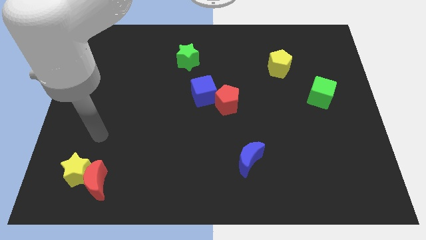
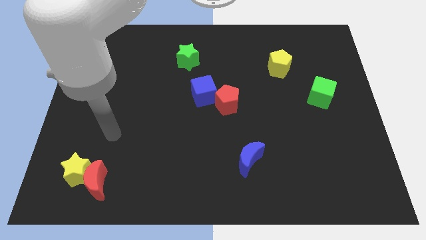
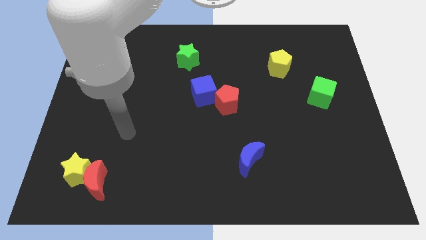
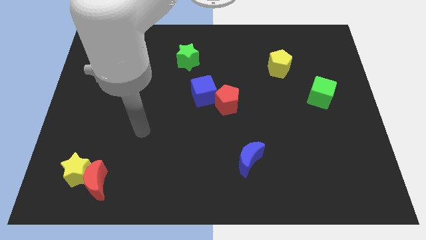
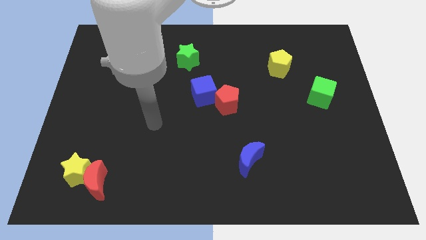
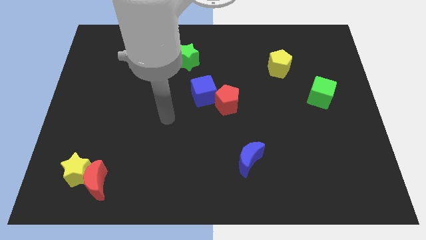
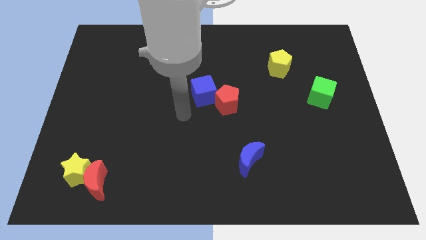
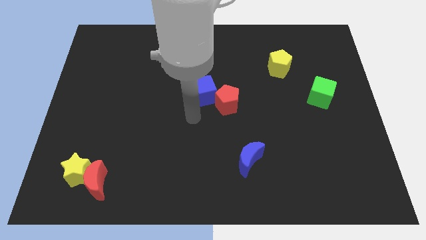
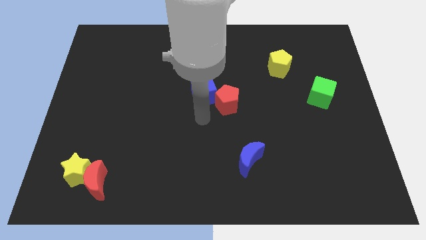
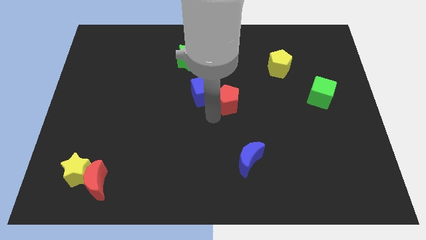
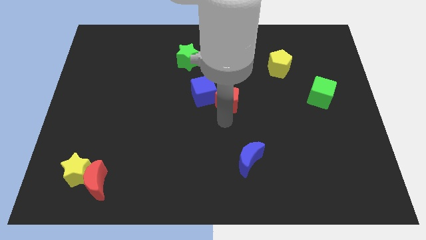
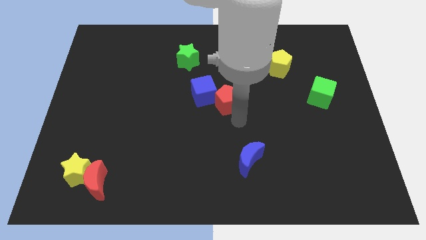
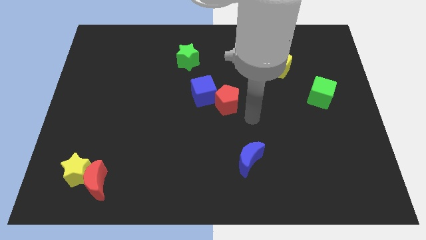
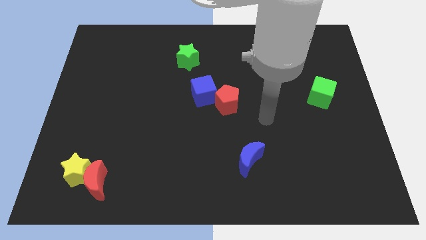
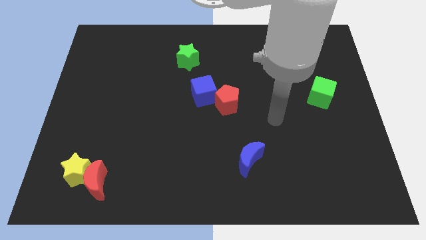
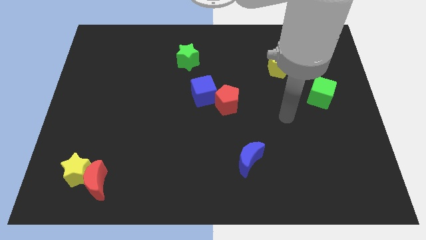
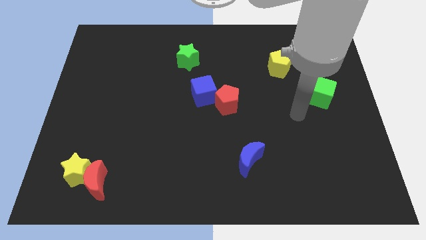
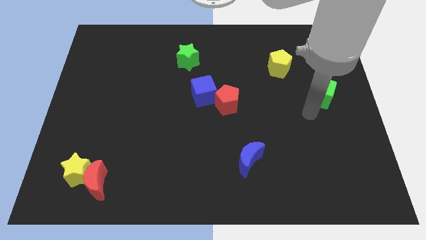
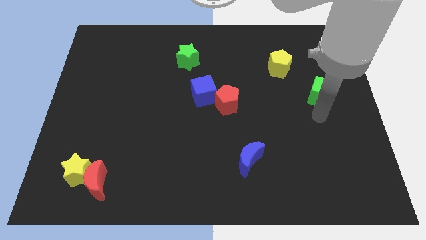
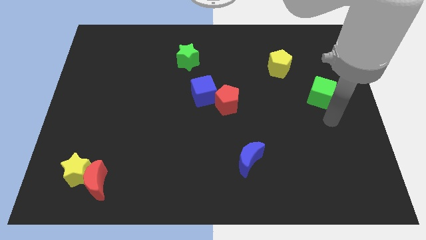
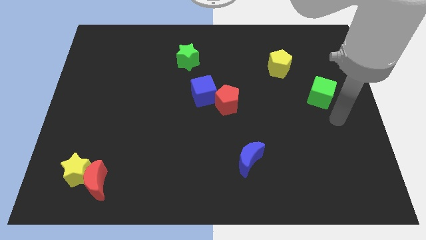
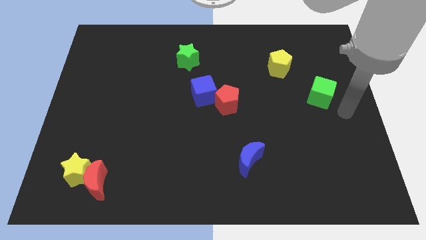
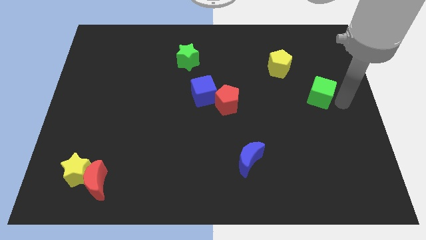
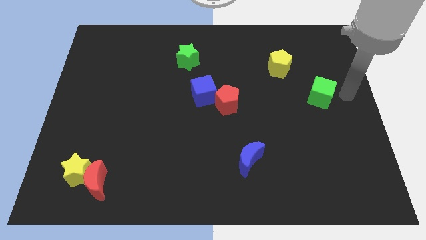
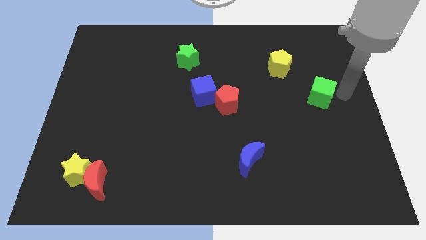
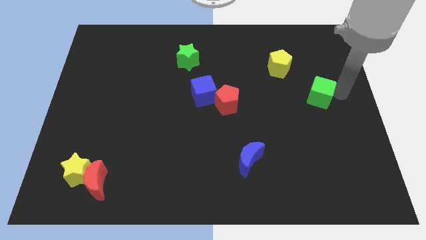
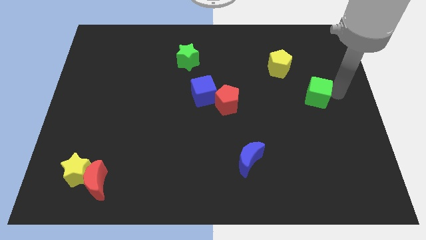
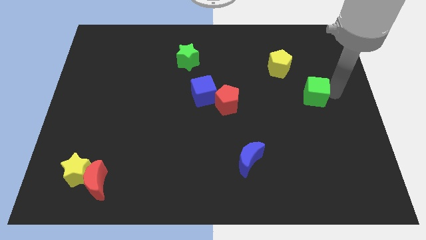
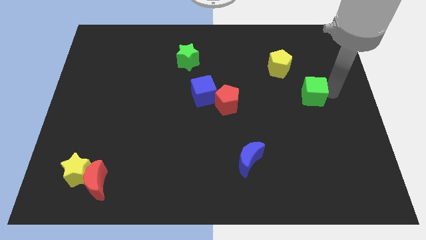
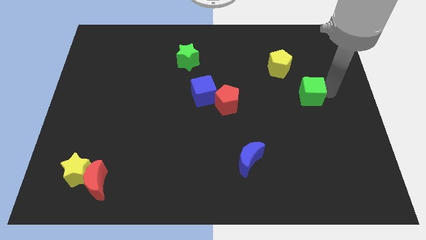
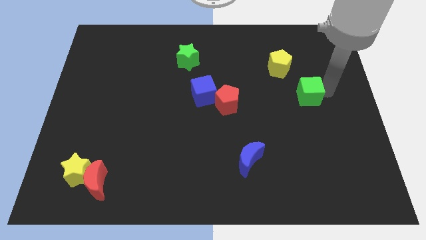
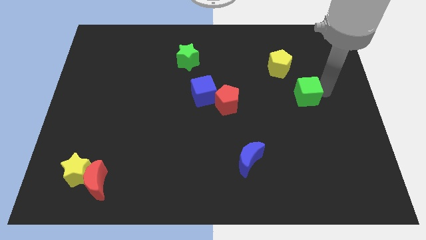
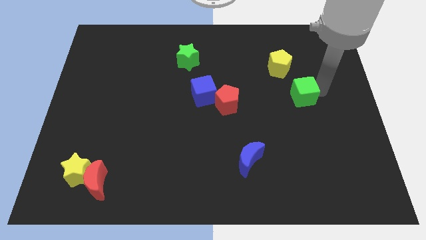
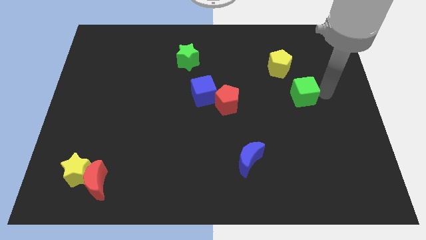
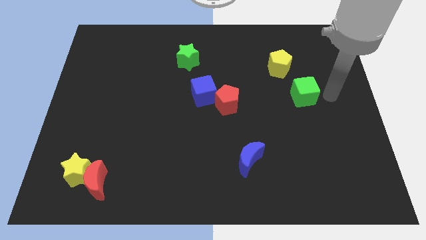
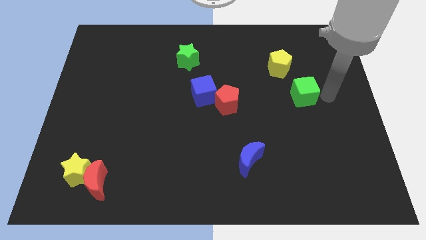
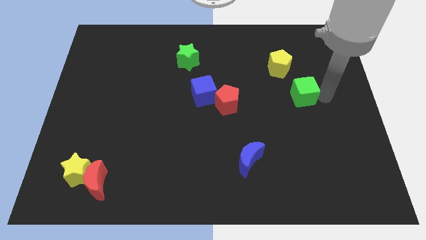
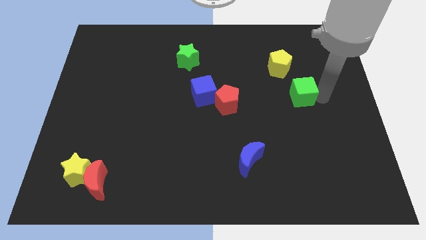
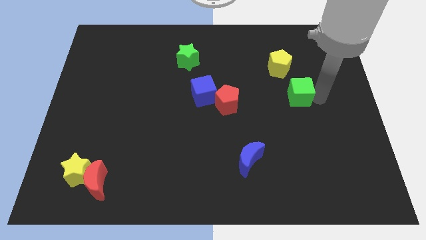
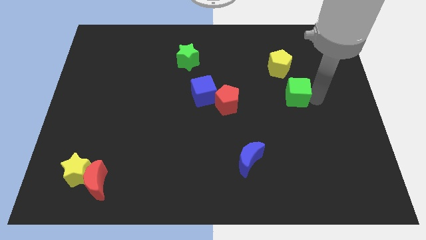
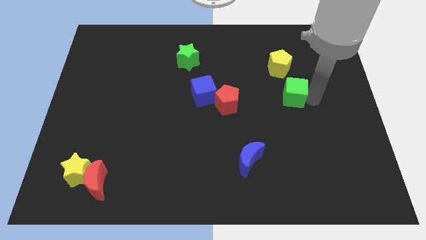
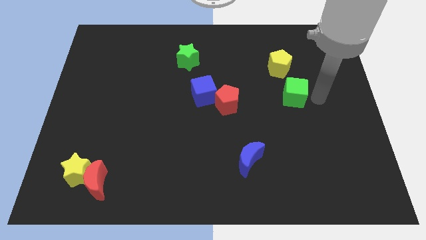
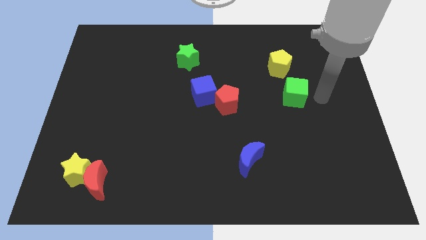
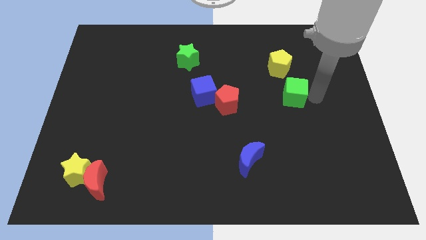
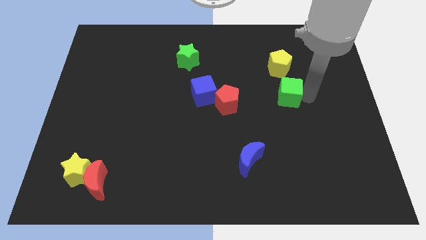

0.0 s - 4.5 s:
slide the green cube left somewhat

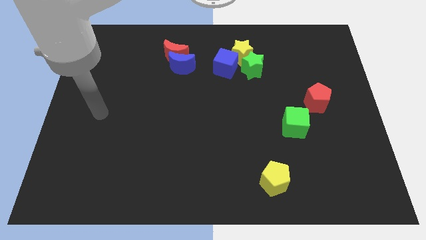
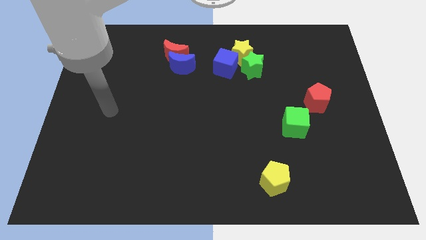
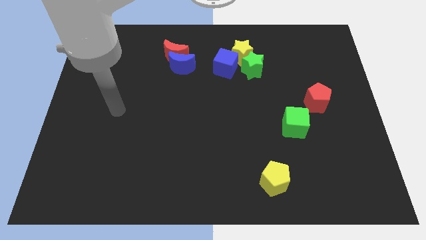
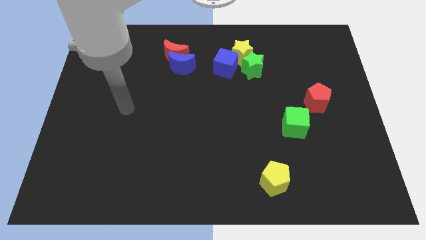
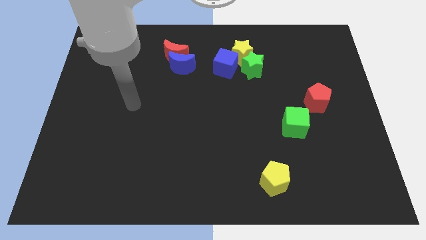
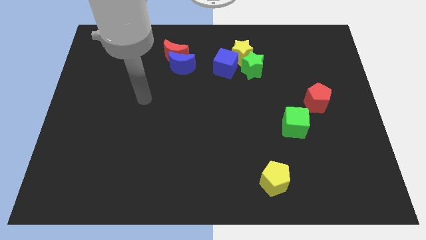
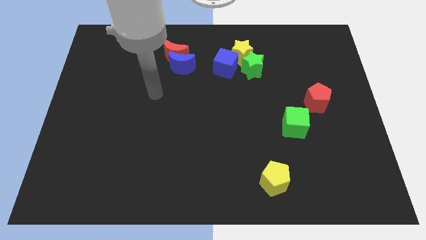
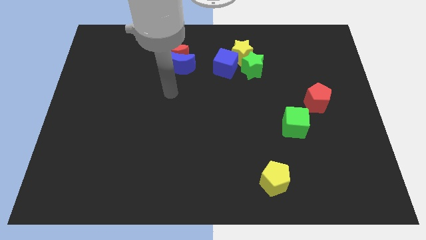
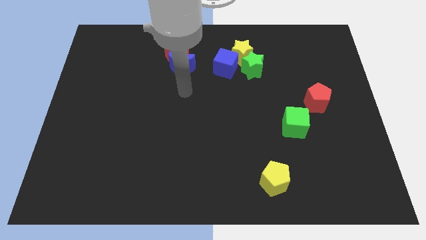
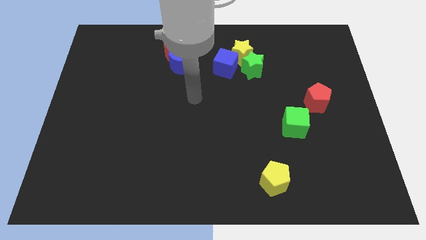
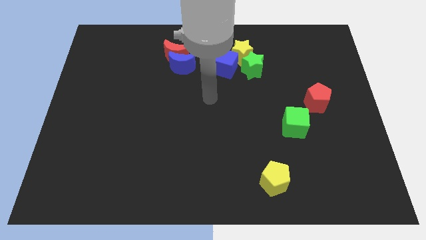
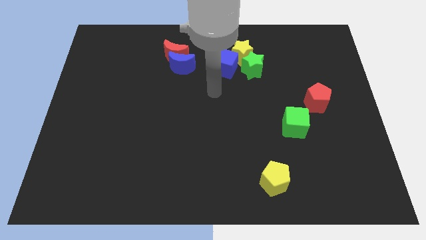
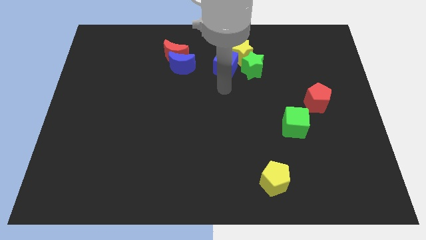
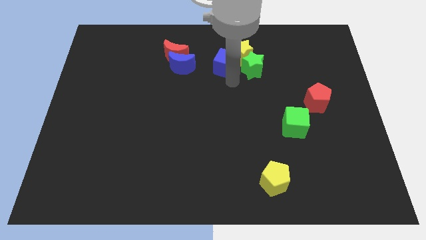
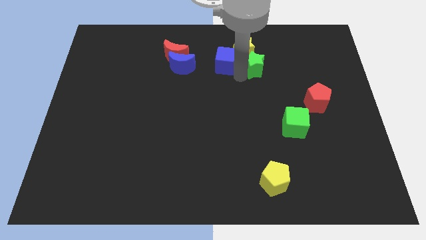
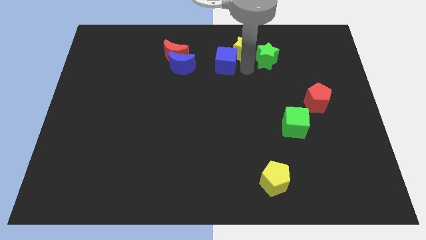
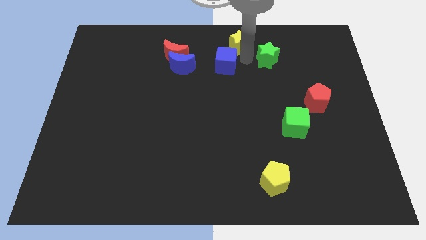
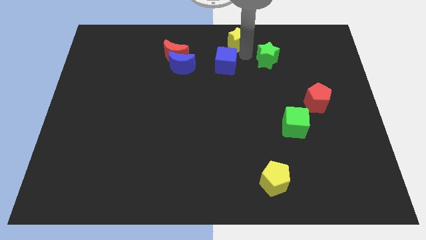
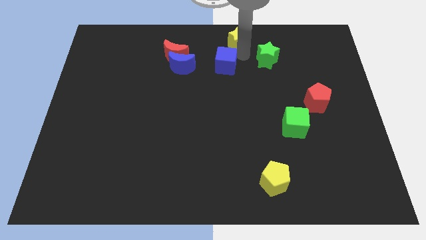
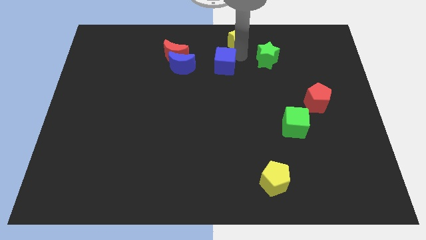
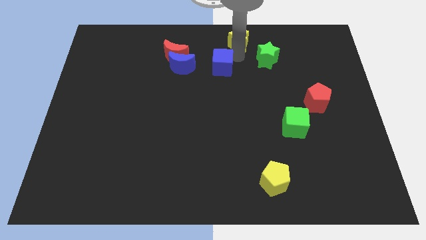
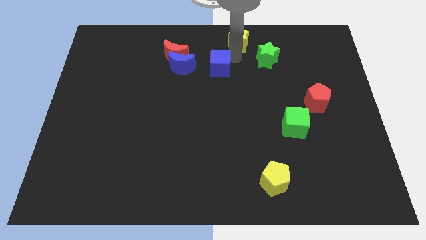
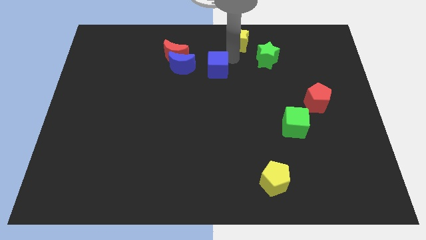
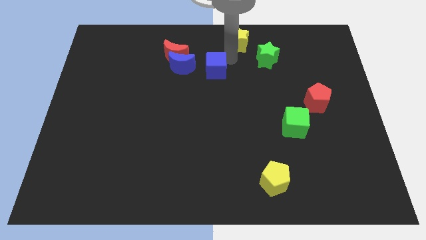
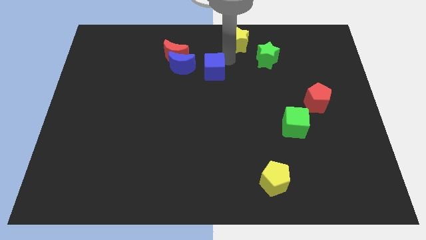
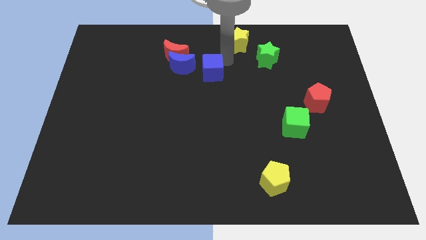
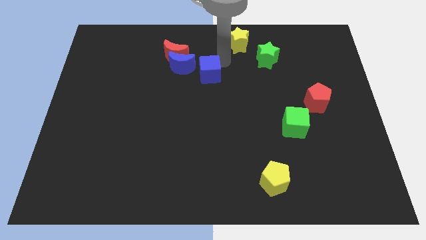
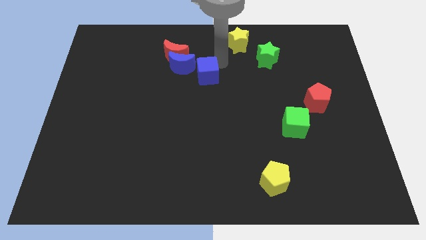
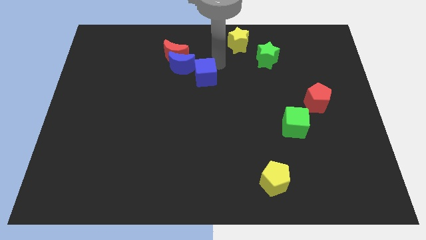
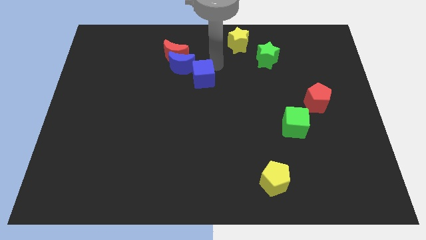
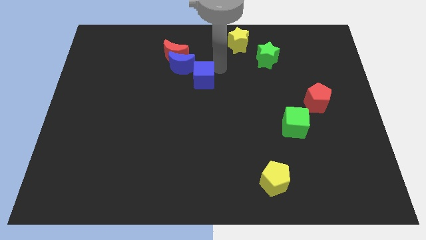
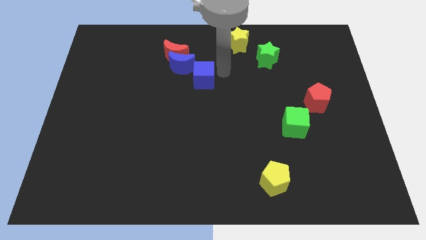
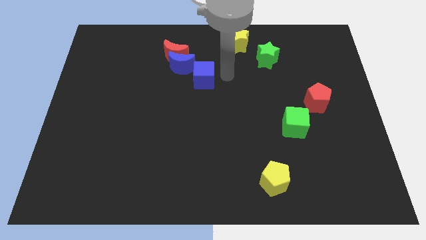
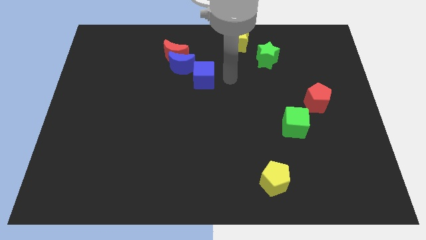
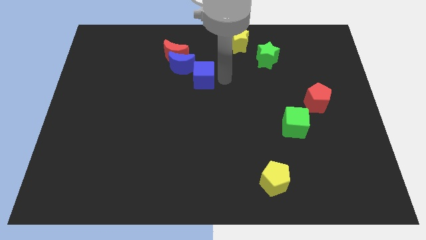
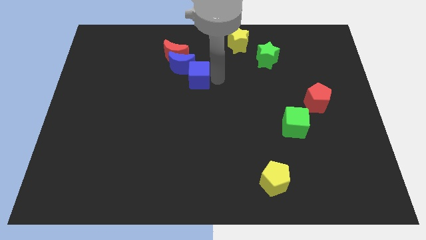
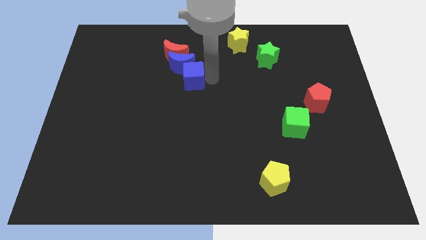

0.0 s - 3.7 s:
push the blue cube somewhat to the left

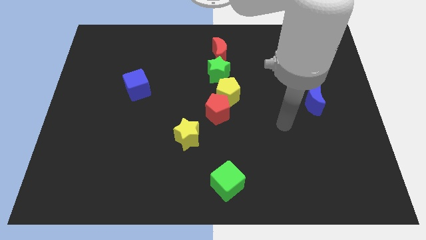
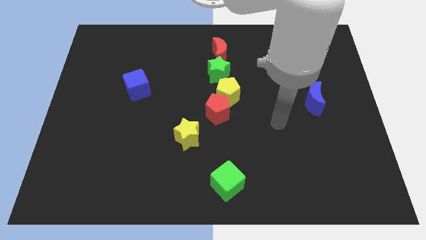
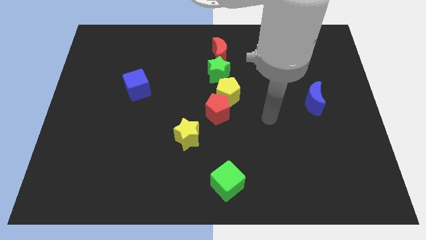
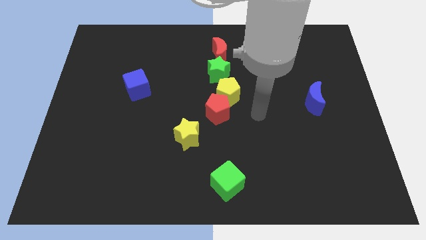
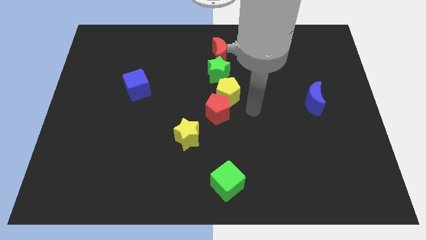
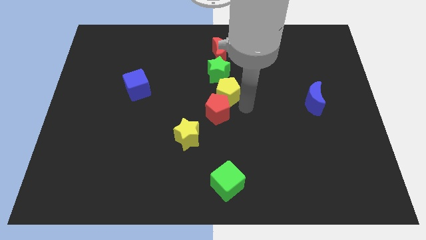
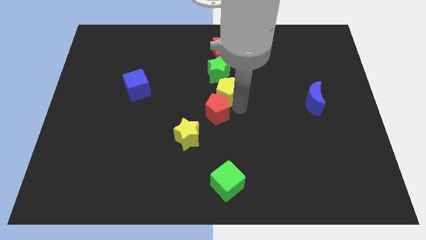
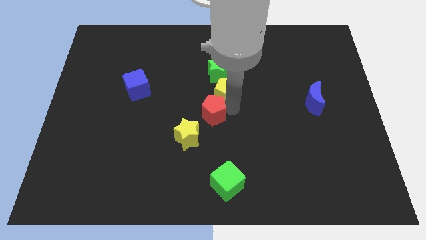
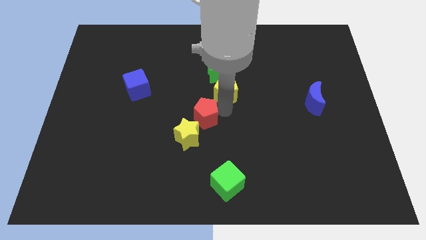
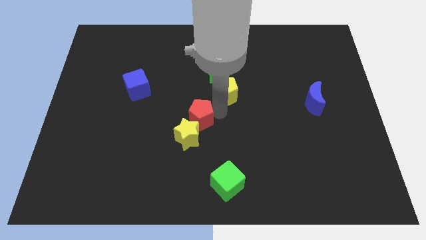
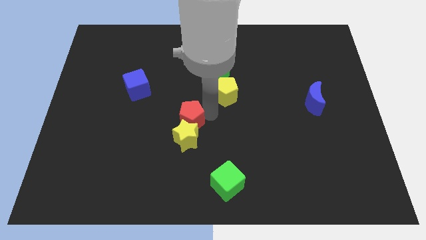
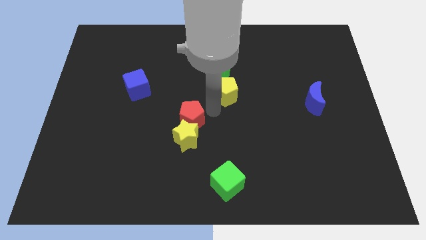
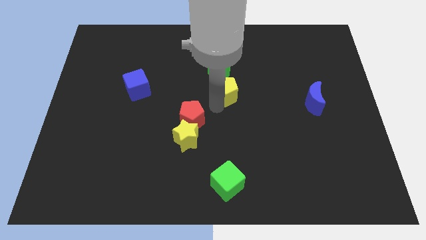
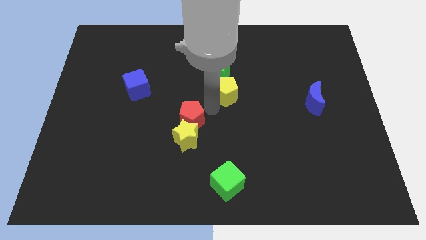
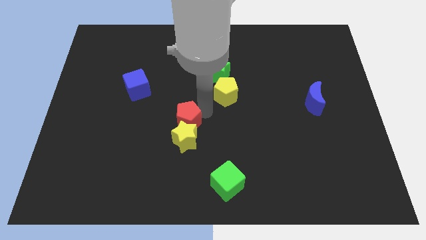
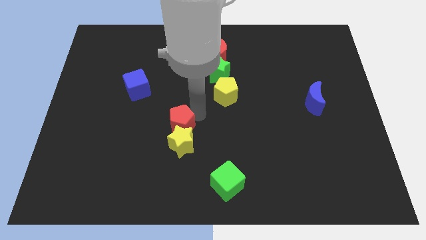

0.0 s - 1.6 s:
push the red pentagon diagonally downwards and to the left a little bit
